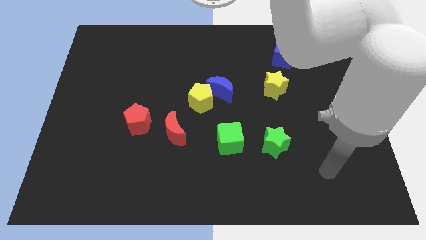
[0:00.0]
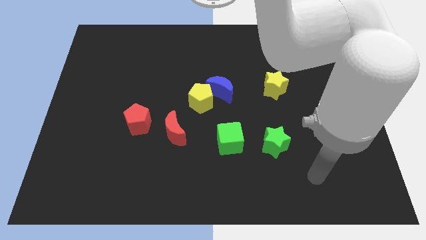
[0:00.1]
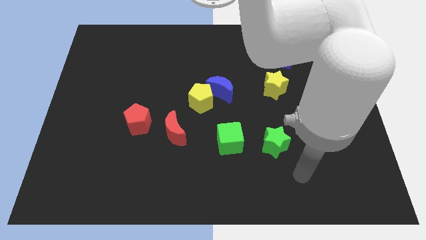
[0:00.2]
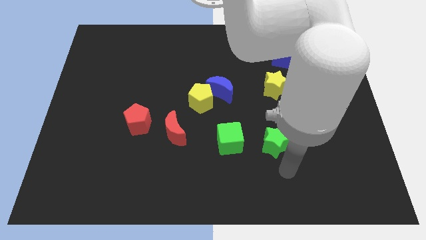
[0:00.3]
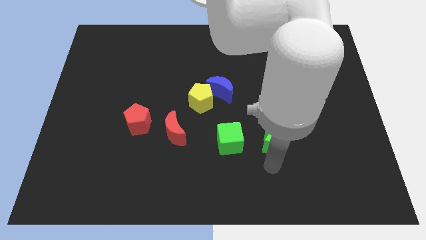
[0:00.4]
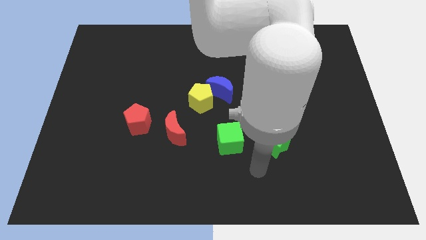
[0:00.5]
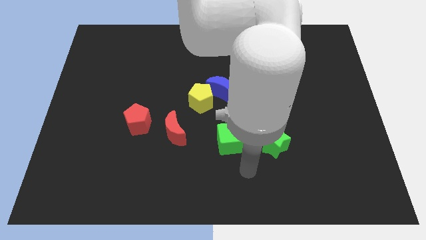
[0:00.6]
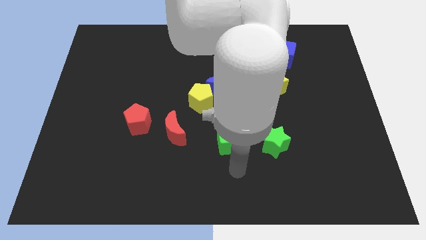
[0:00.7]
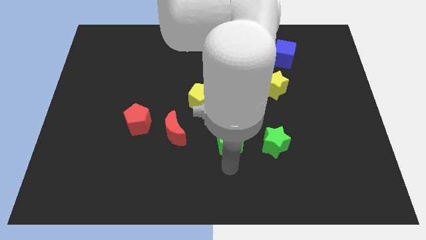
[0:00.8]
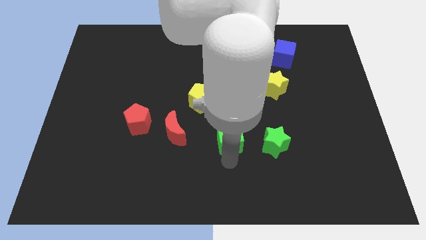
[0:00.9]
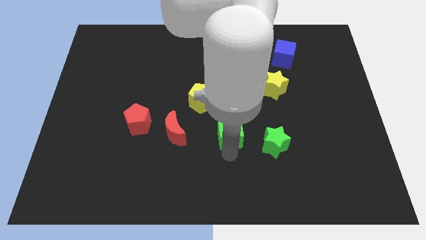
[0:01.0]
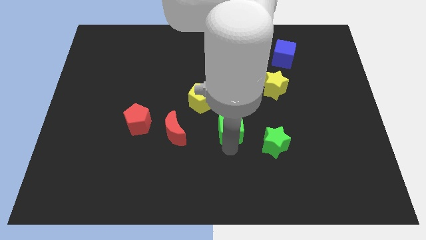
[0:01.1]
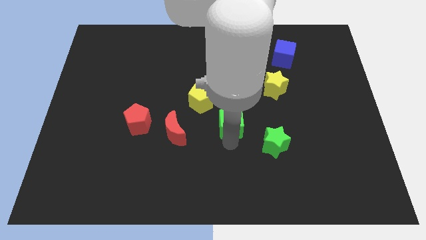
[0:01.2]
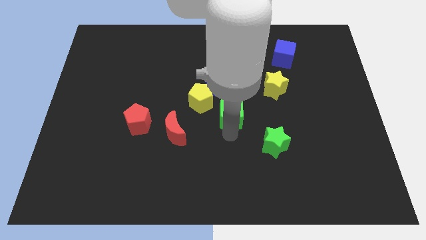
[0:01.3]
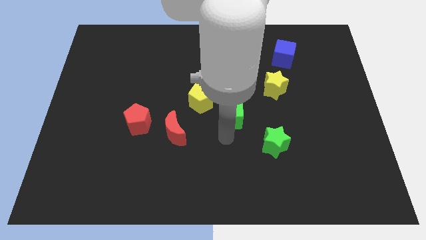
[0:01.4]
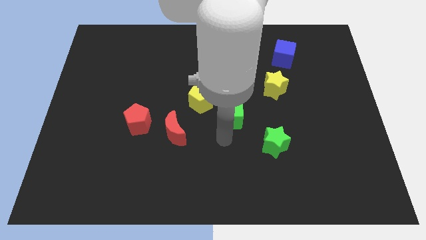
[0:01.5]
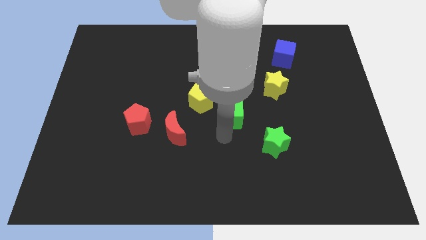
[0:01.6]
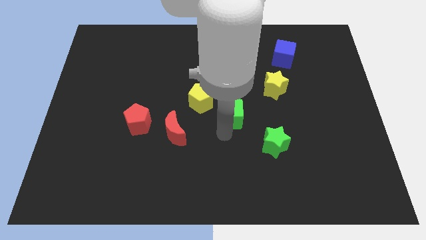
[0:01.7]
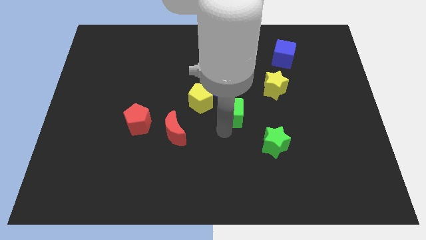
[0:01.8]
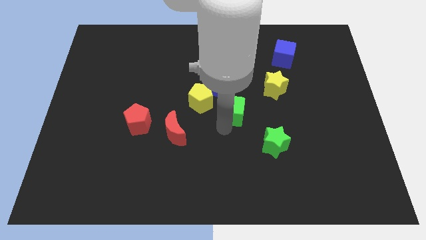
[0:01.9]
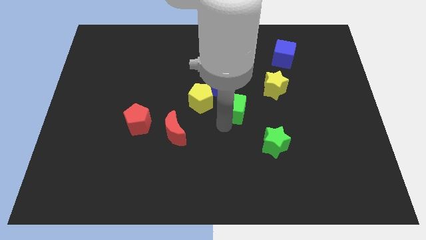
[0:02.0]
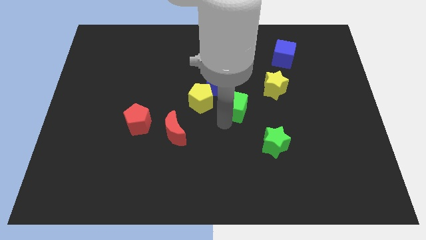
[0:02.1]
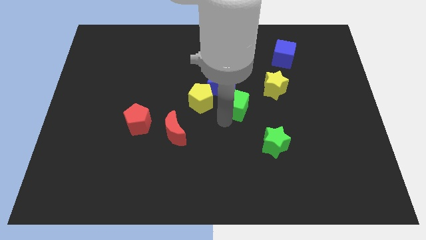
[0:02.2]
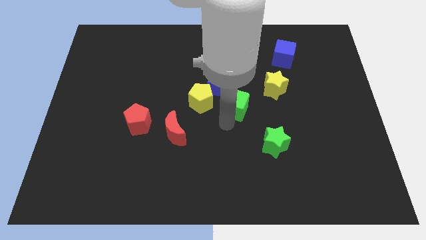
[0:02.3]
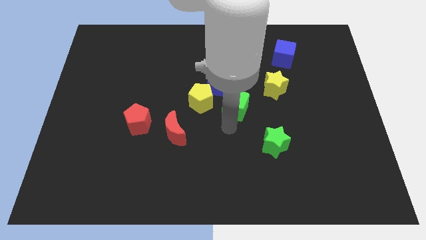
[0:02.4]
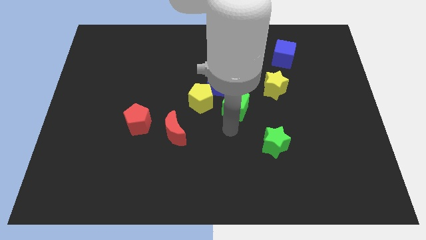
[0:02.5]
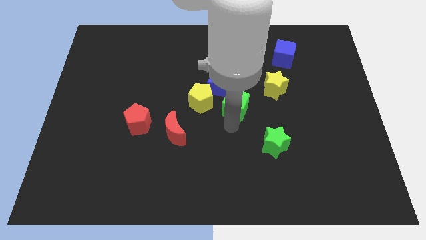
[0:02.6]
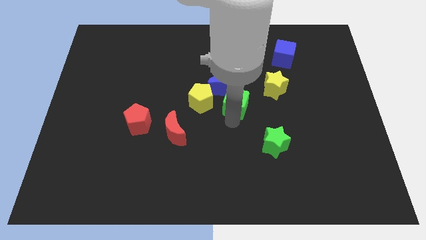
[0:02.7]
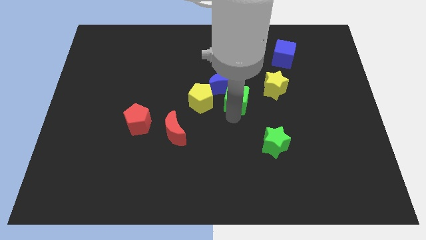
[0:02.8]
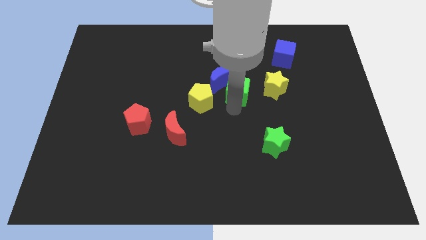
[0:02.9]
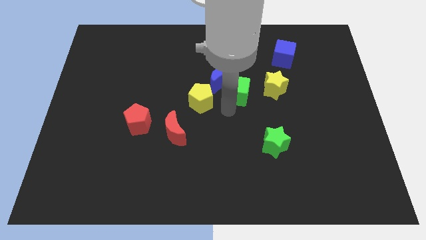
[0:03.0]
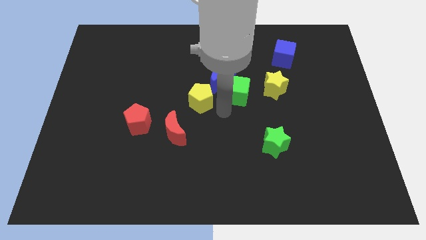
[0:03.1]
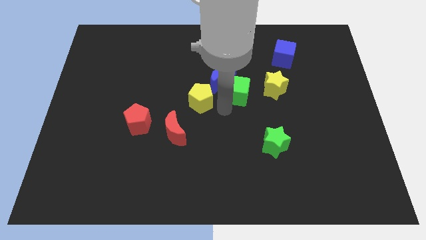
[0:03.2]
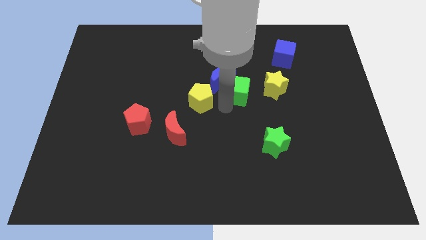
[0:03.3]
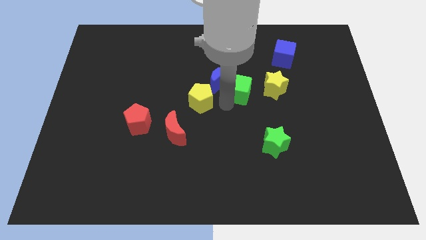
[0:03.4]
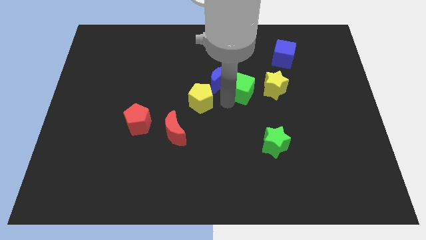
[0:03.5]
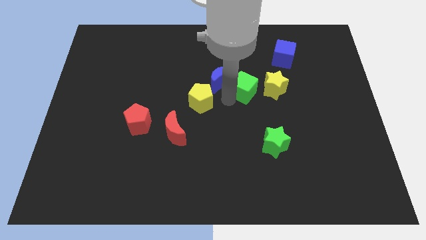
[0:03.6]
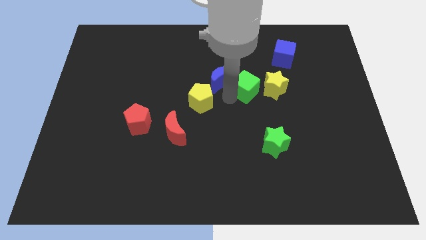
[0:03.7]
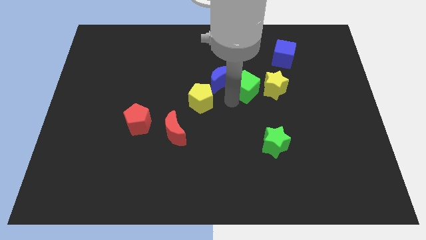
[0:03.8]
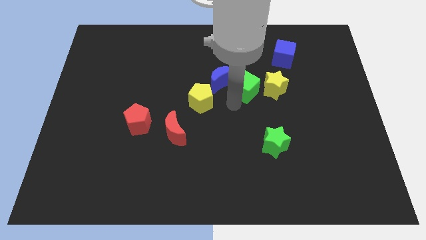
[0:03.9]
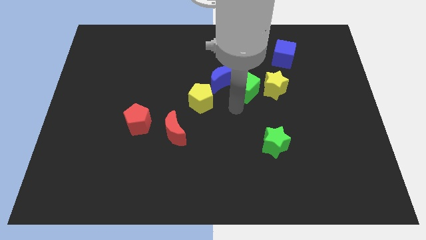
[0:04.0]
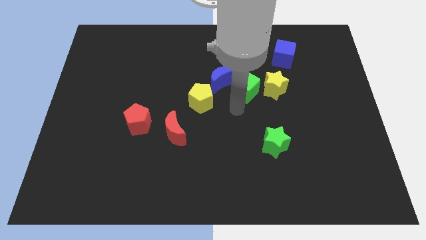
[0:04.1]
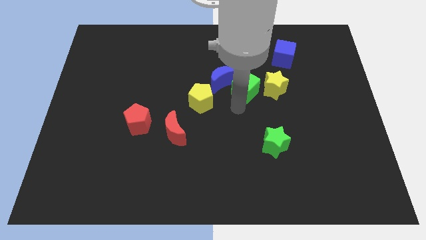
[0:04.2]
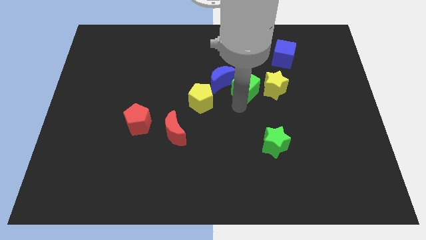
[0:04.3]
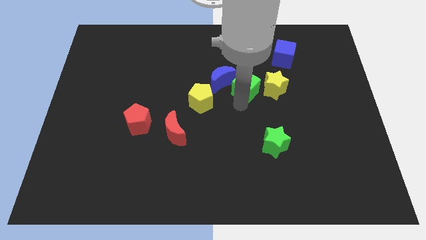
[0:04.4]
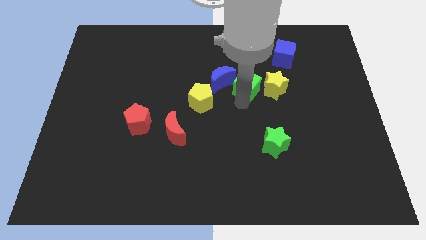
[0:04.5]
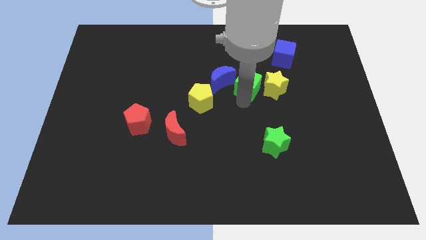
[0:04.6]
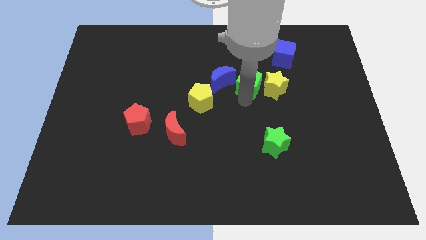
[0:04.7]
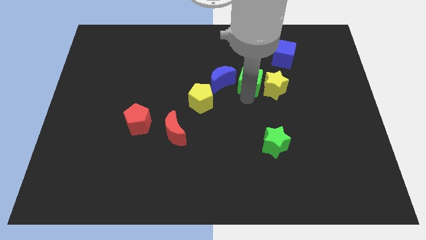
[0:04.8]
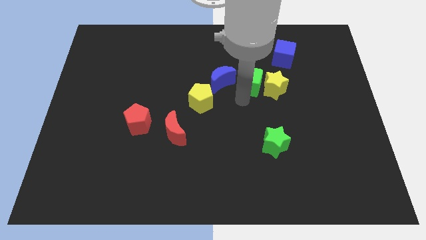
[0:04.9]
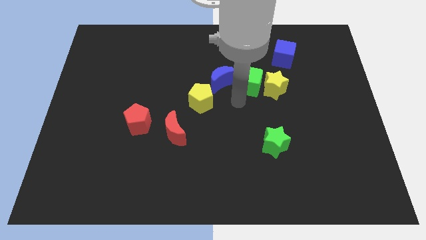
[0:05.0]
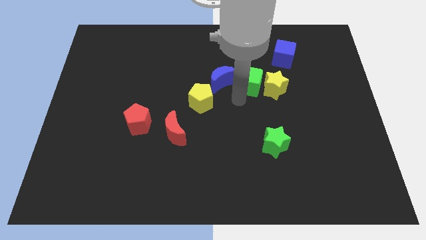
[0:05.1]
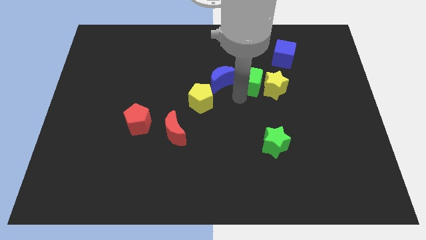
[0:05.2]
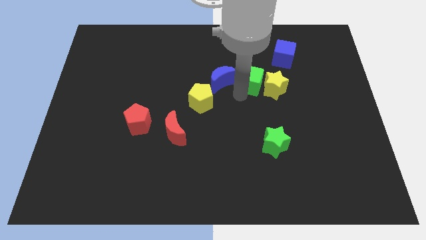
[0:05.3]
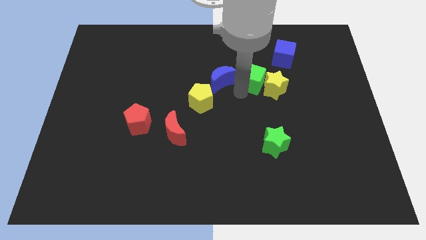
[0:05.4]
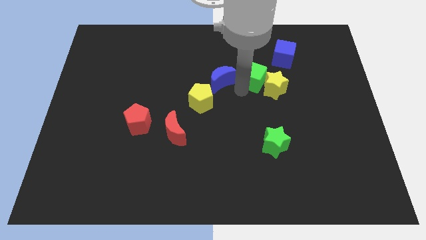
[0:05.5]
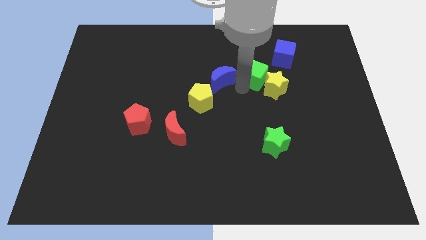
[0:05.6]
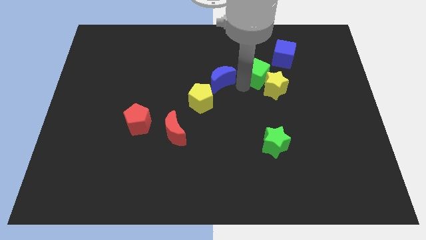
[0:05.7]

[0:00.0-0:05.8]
move the green cube to the top side of the yellow star

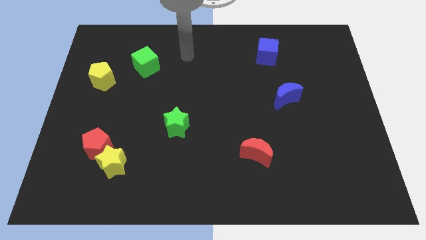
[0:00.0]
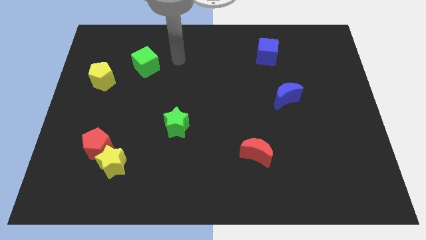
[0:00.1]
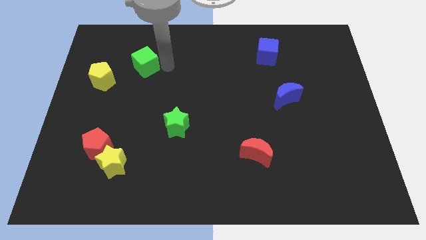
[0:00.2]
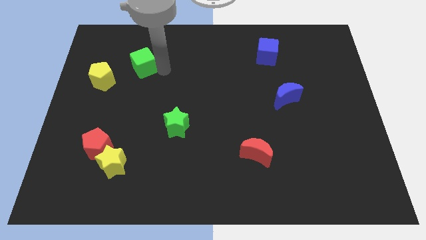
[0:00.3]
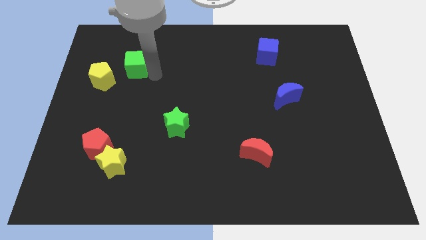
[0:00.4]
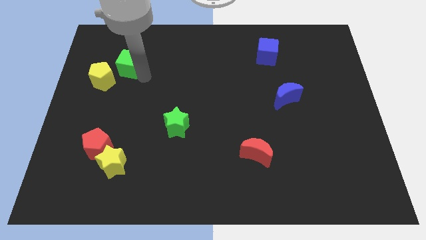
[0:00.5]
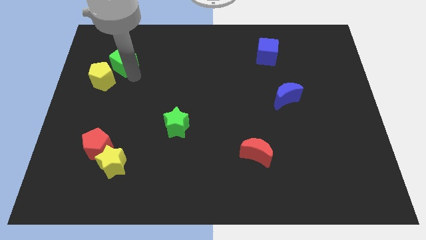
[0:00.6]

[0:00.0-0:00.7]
move the yellow pentagon to the bottom of the green cube
